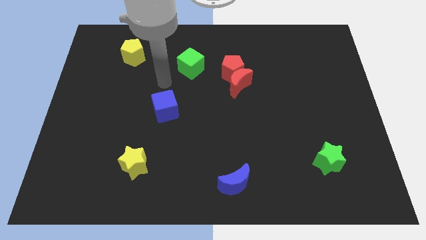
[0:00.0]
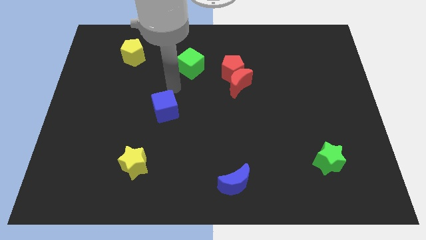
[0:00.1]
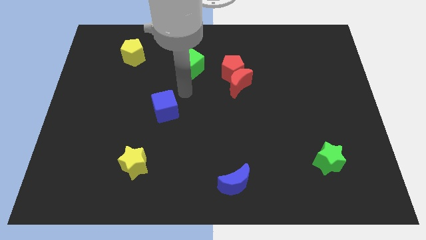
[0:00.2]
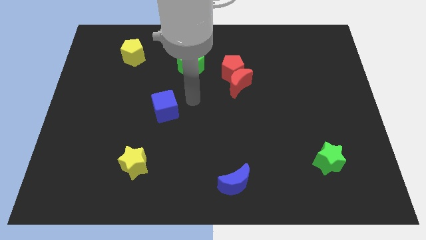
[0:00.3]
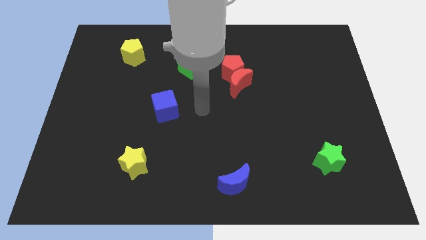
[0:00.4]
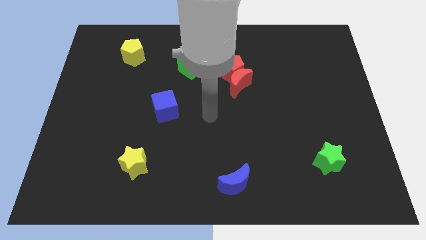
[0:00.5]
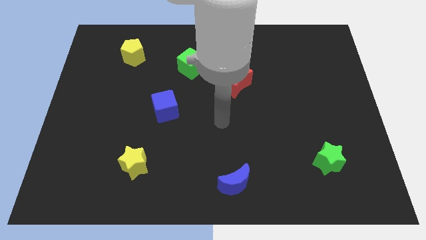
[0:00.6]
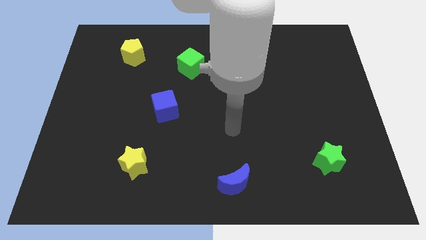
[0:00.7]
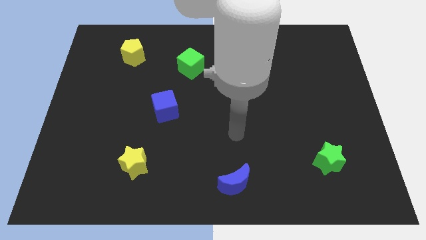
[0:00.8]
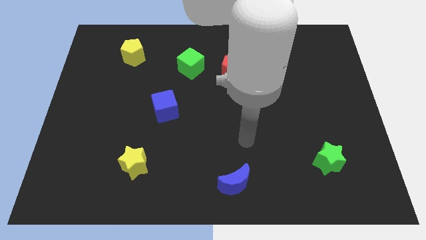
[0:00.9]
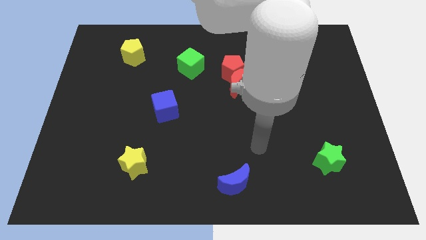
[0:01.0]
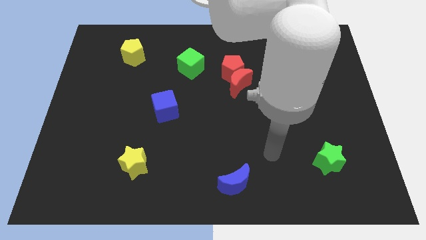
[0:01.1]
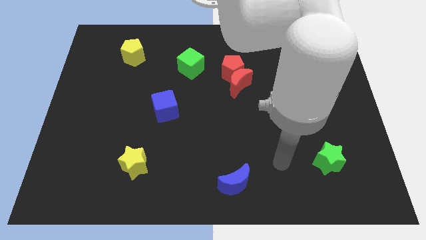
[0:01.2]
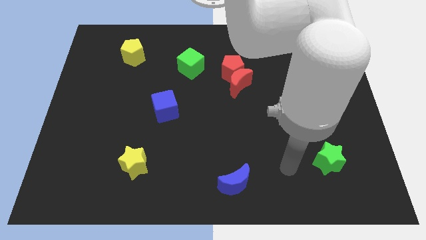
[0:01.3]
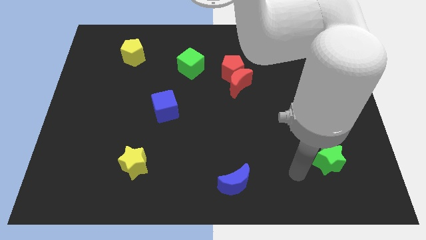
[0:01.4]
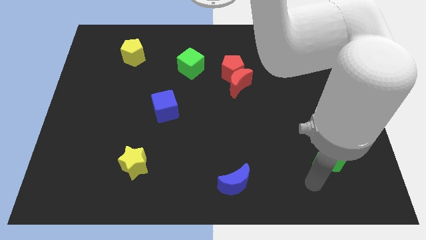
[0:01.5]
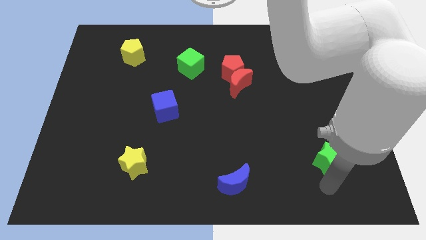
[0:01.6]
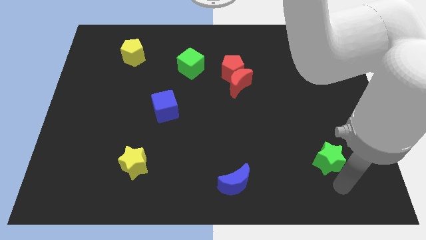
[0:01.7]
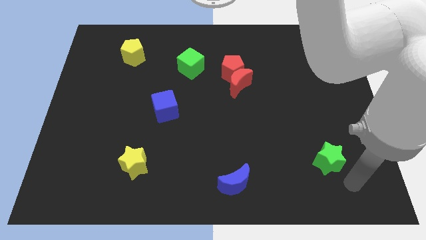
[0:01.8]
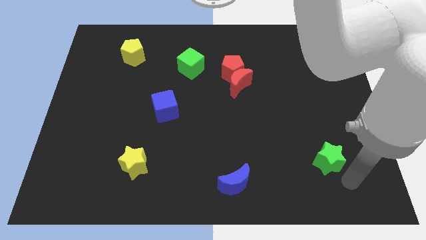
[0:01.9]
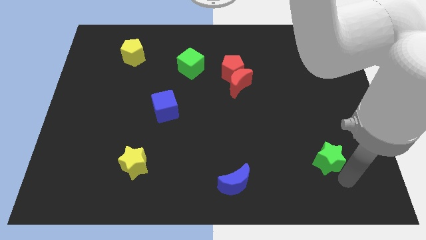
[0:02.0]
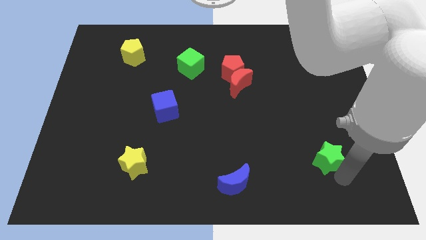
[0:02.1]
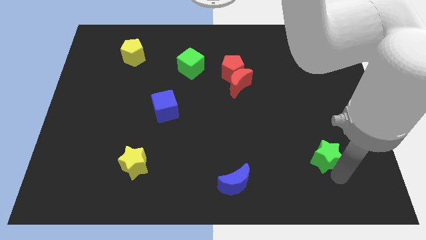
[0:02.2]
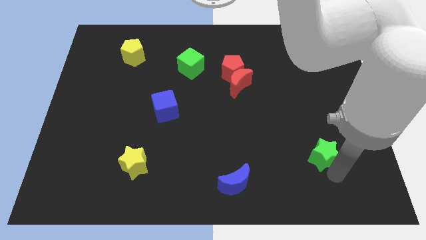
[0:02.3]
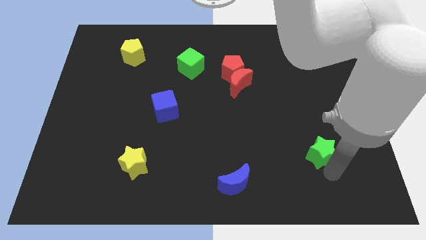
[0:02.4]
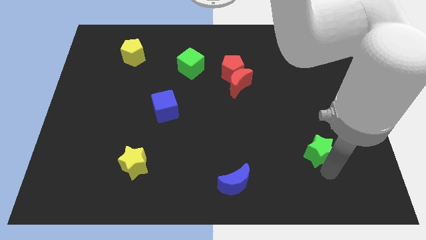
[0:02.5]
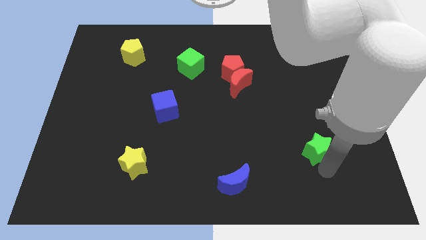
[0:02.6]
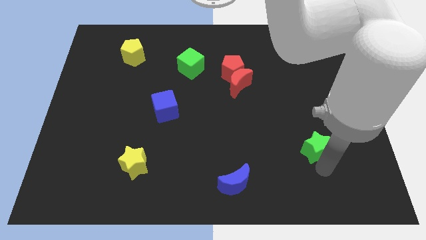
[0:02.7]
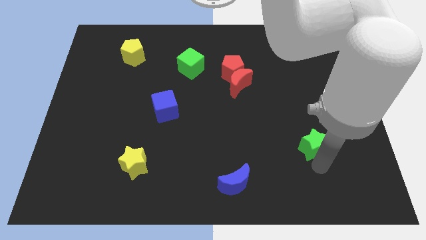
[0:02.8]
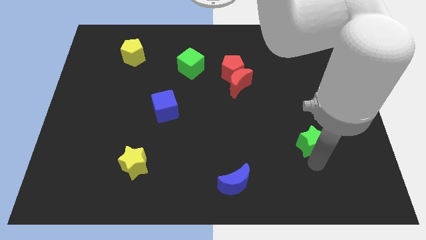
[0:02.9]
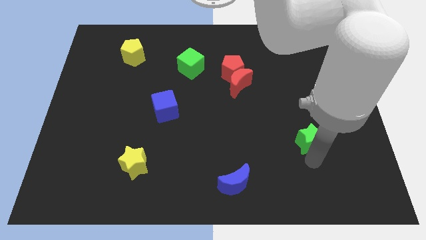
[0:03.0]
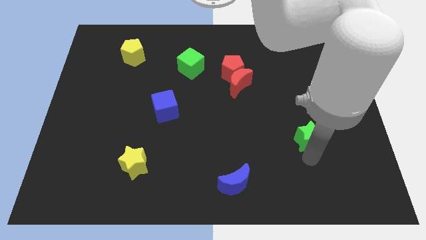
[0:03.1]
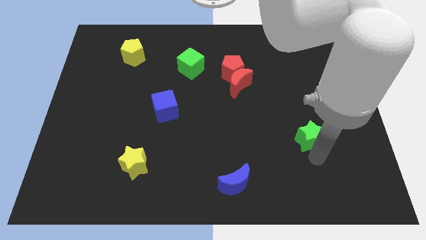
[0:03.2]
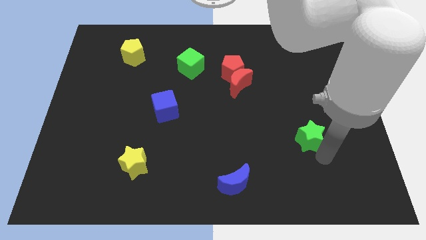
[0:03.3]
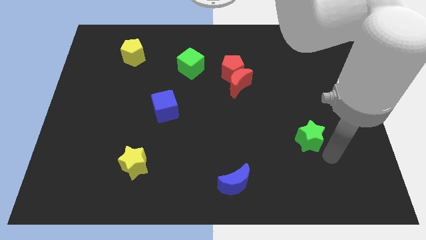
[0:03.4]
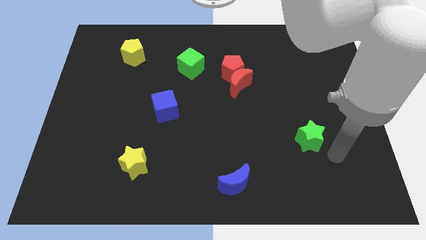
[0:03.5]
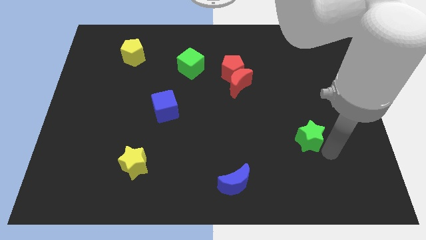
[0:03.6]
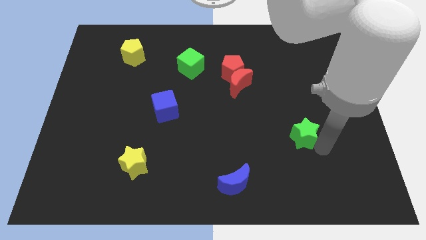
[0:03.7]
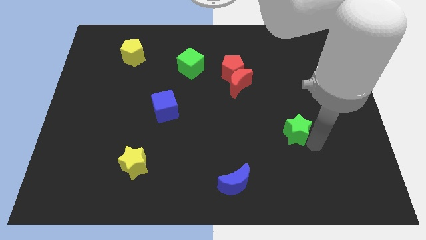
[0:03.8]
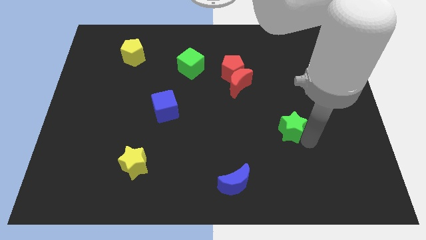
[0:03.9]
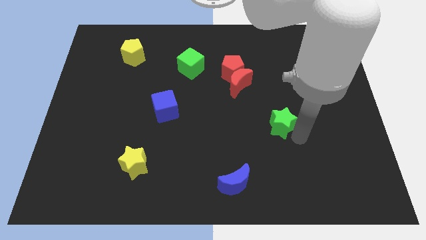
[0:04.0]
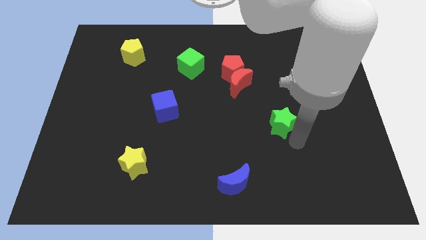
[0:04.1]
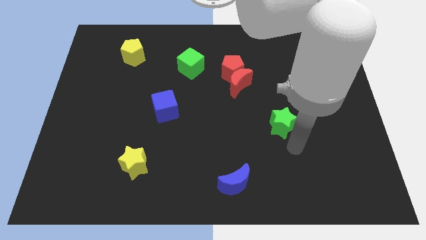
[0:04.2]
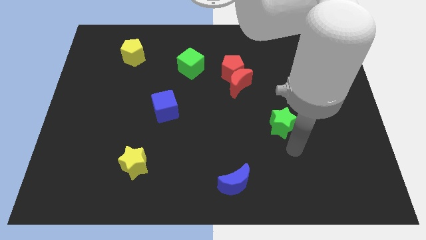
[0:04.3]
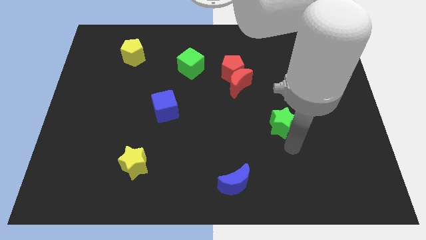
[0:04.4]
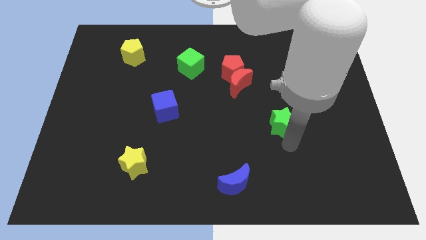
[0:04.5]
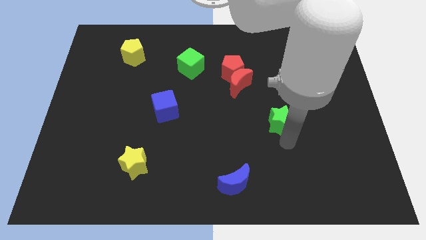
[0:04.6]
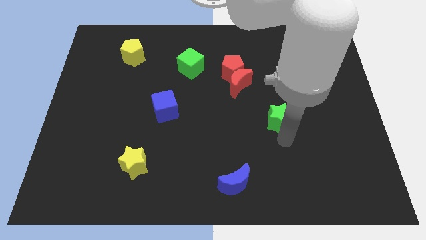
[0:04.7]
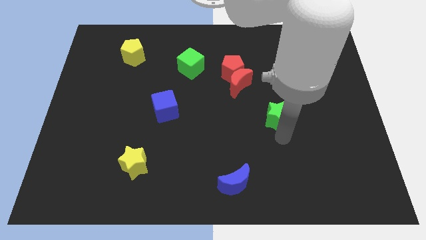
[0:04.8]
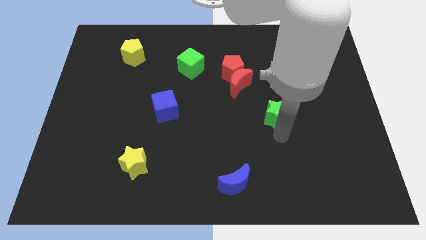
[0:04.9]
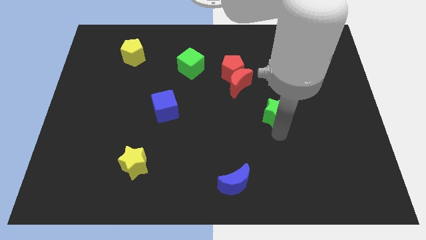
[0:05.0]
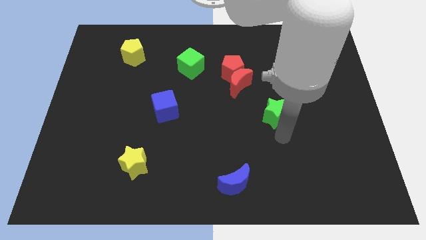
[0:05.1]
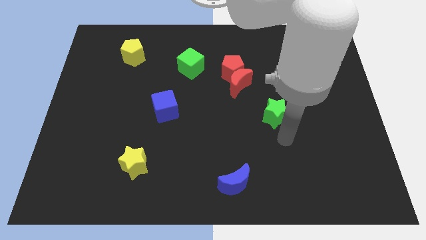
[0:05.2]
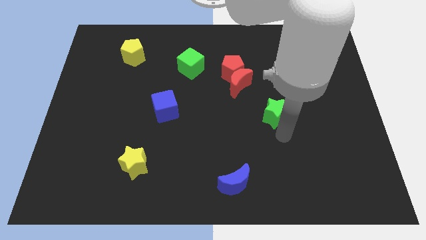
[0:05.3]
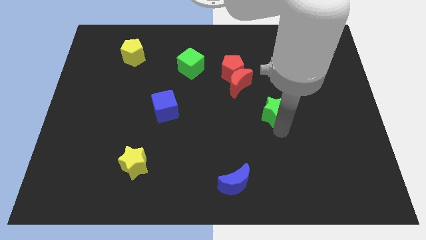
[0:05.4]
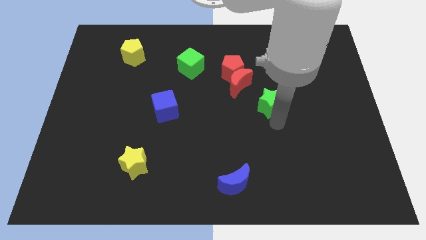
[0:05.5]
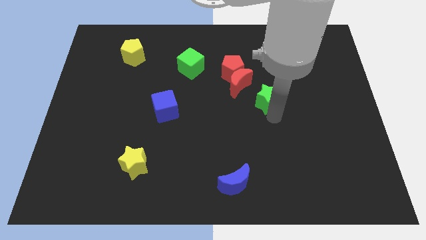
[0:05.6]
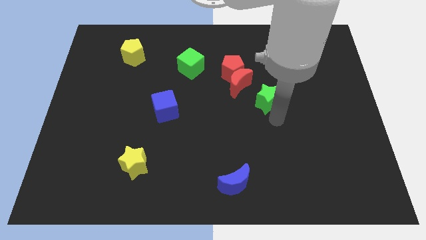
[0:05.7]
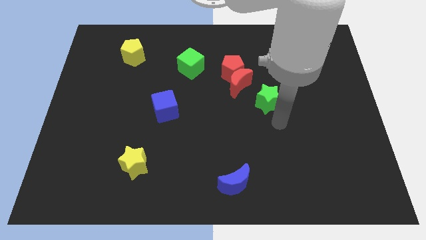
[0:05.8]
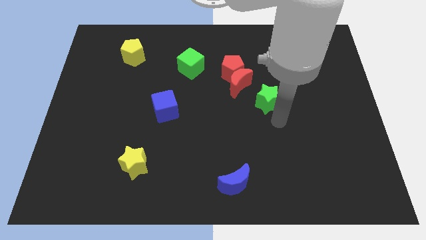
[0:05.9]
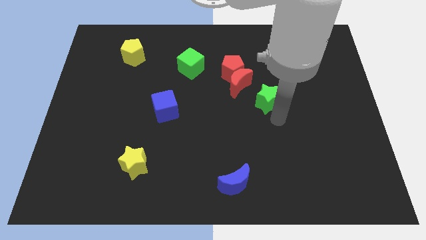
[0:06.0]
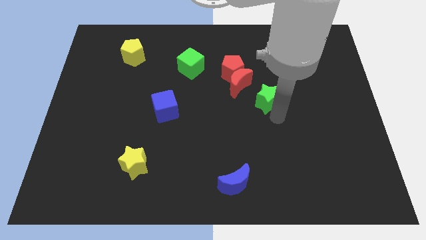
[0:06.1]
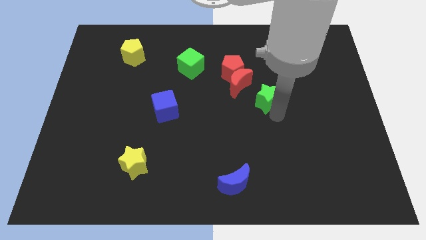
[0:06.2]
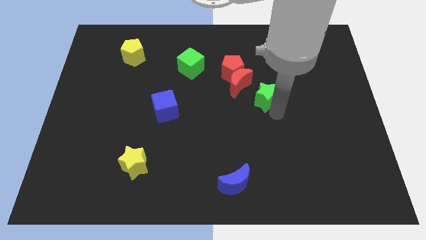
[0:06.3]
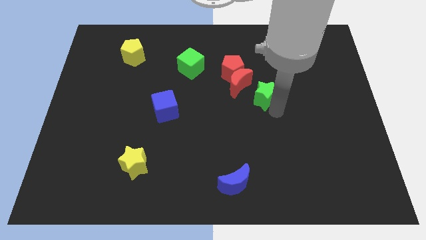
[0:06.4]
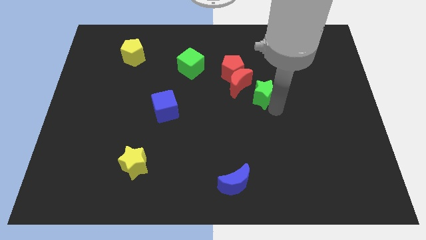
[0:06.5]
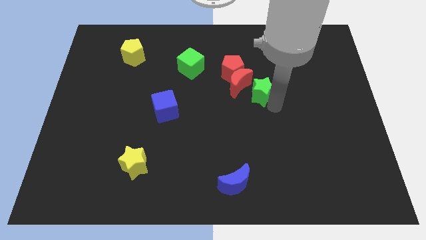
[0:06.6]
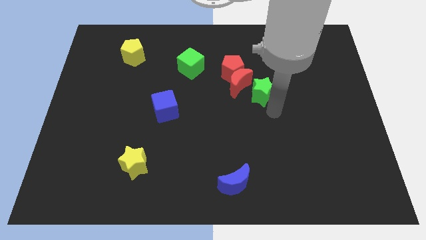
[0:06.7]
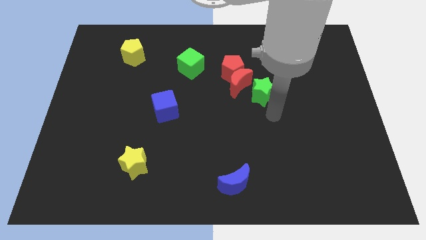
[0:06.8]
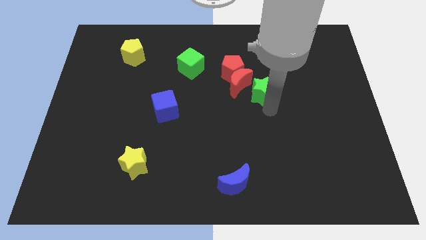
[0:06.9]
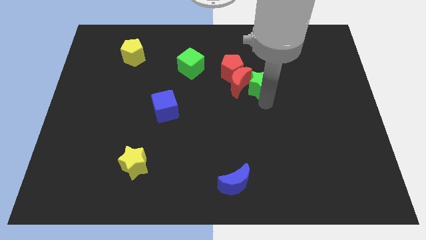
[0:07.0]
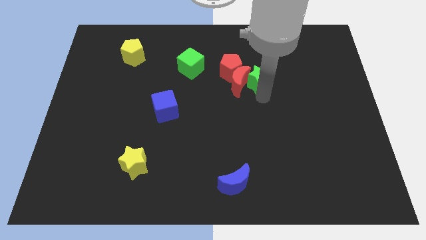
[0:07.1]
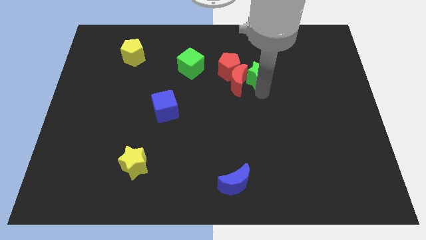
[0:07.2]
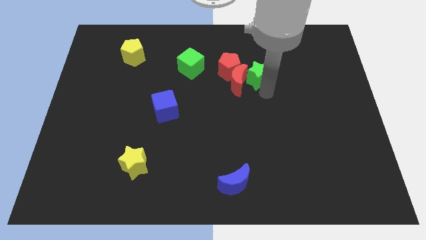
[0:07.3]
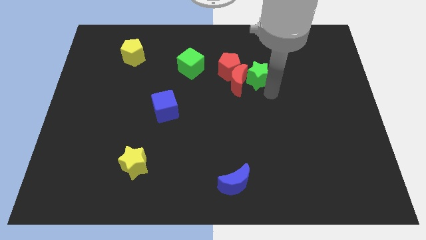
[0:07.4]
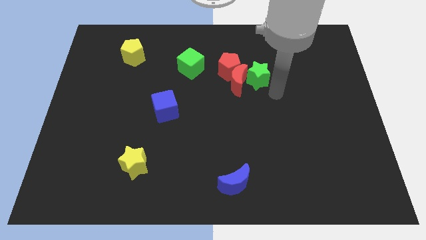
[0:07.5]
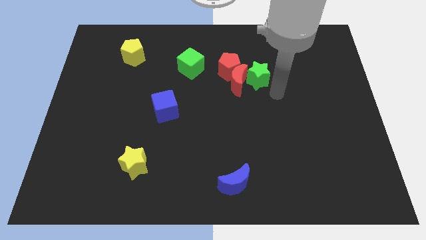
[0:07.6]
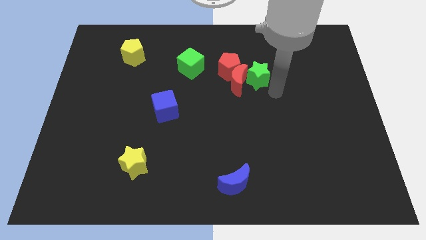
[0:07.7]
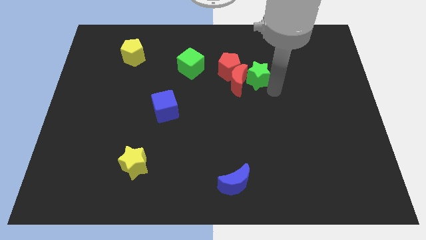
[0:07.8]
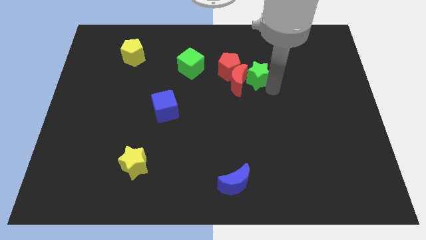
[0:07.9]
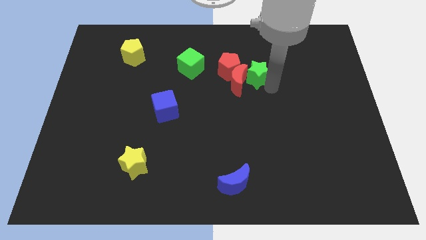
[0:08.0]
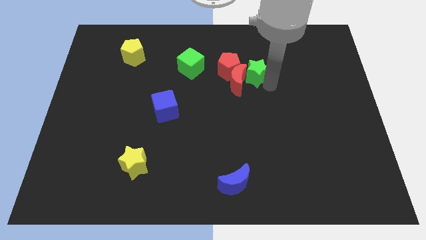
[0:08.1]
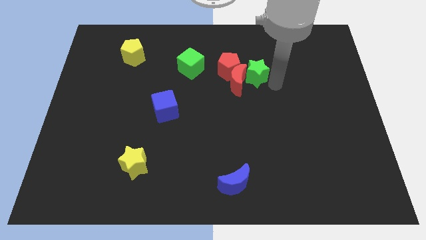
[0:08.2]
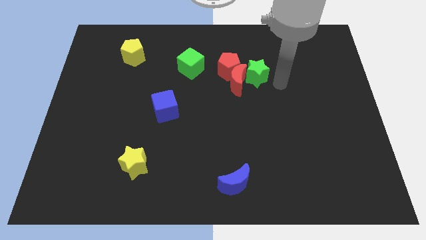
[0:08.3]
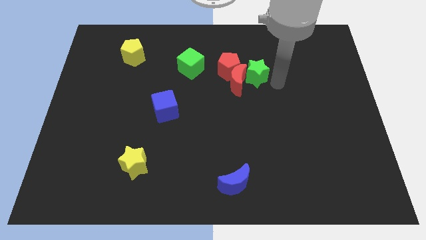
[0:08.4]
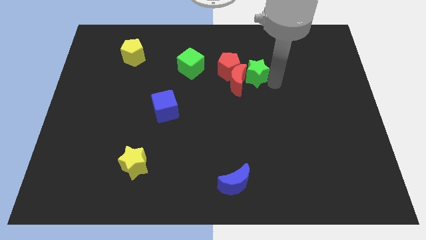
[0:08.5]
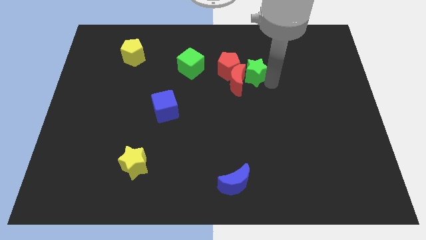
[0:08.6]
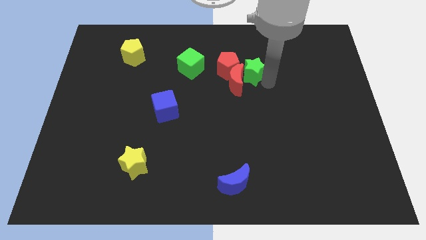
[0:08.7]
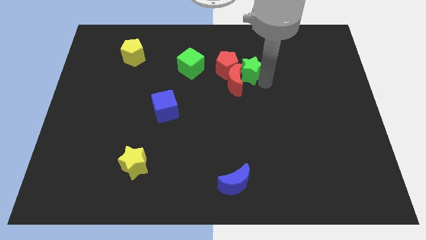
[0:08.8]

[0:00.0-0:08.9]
slide the green star close to the red pentagon
